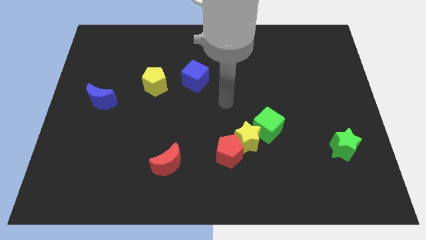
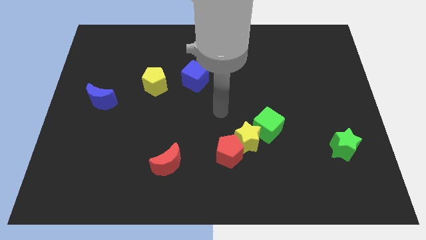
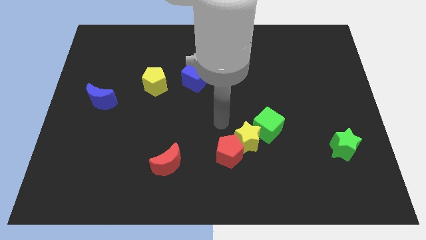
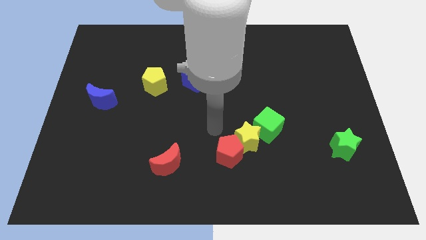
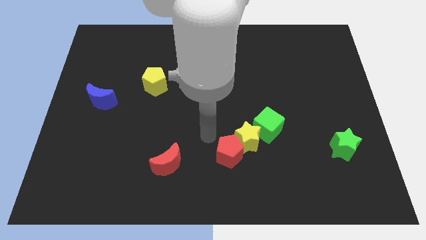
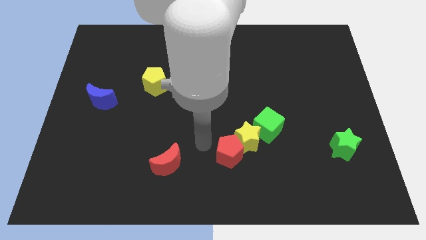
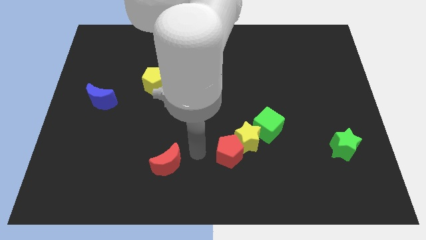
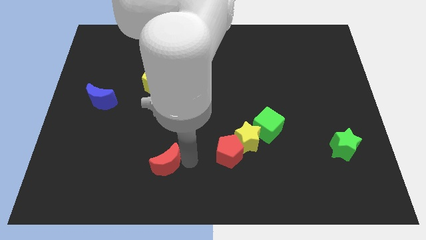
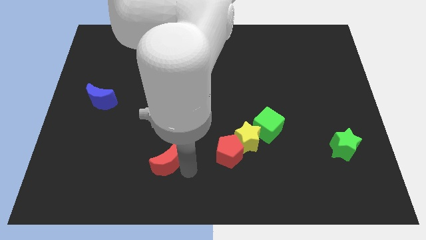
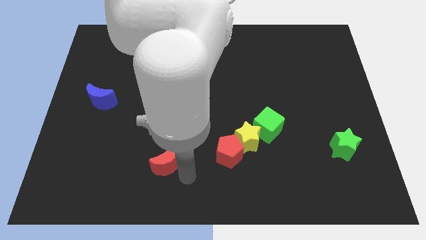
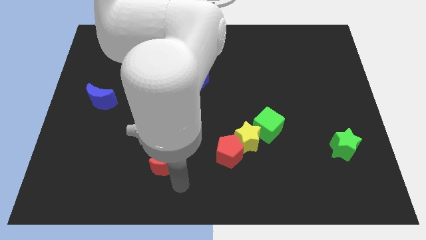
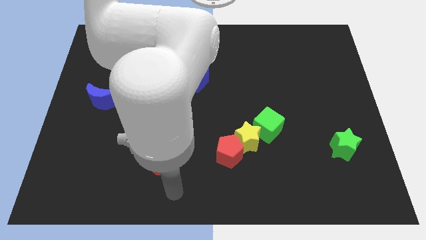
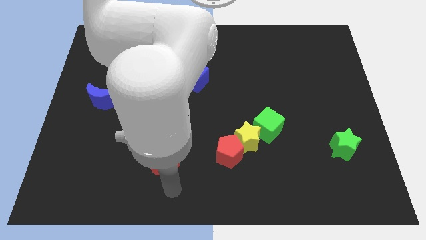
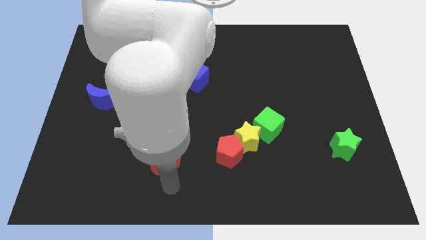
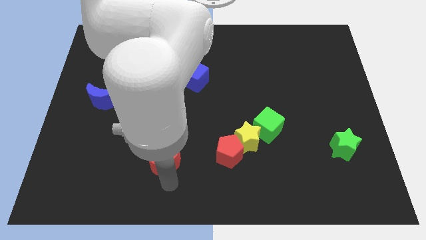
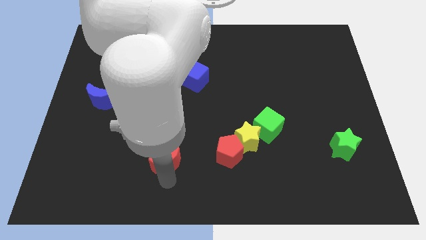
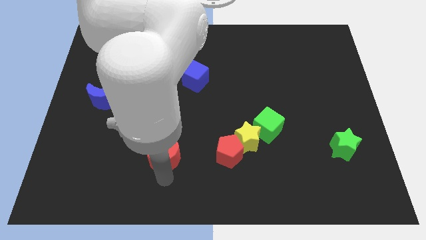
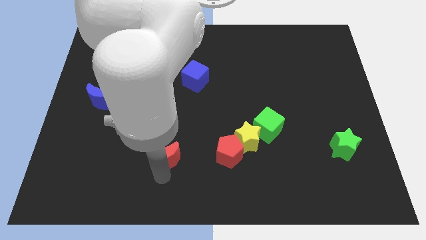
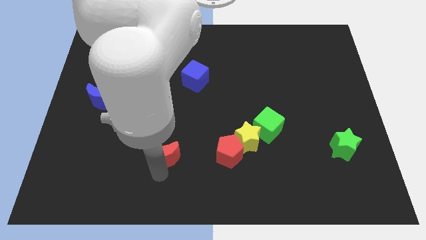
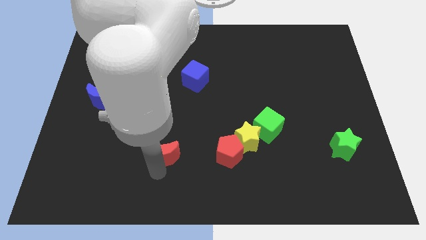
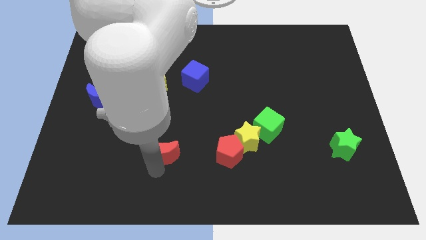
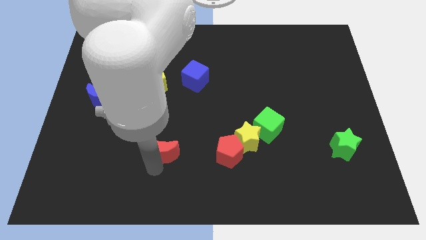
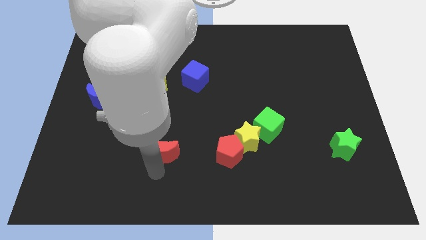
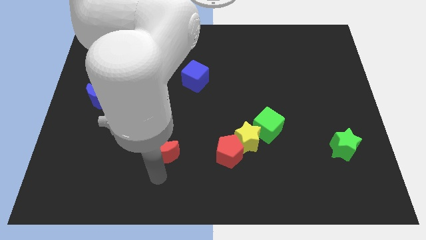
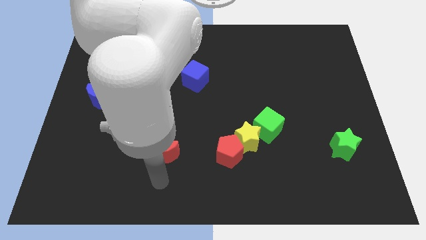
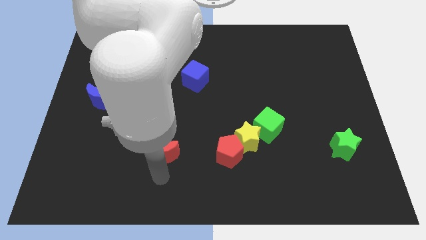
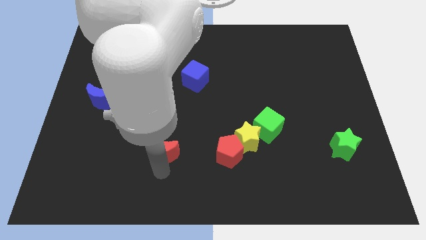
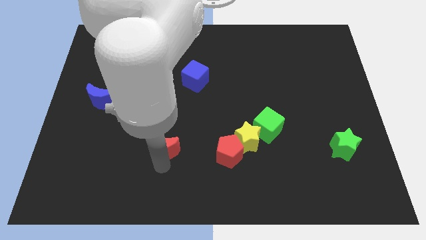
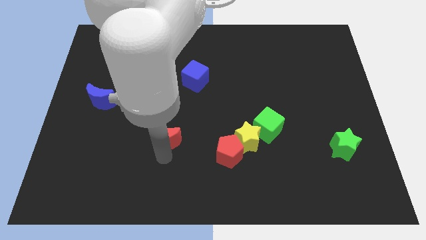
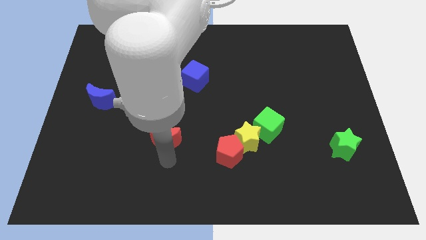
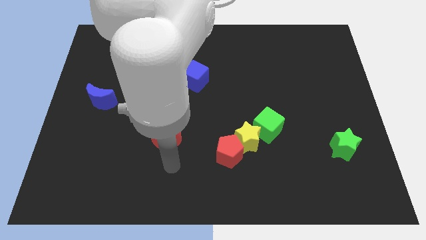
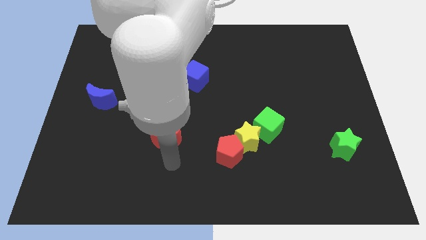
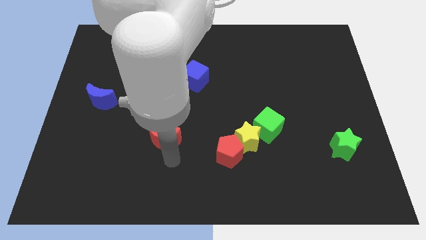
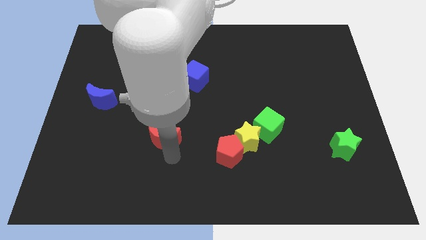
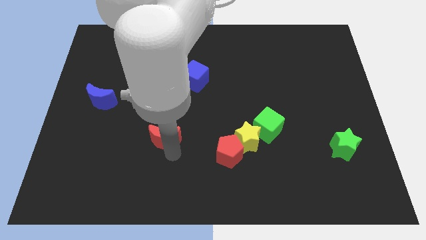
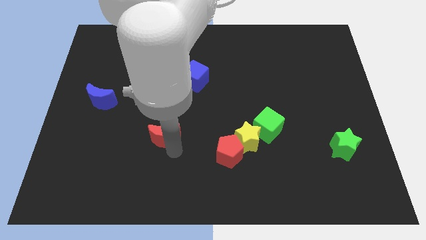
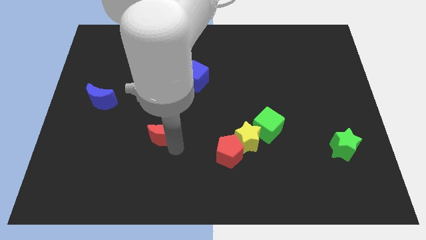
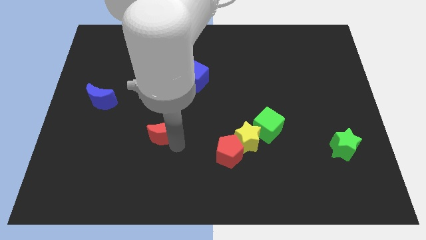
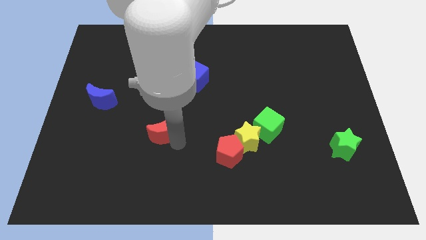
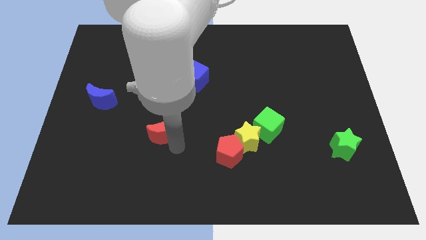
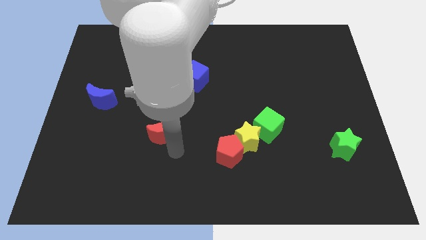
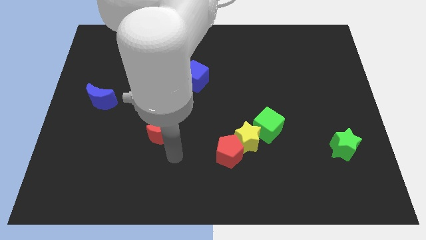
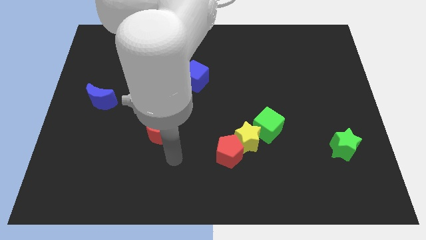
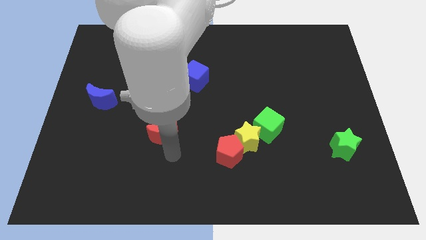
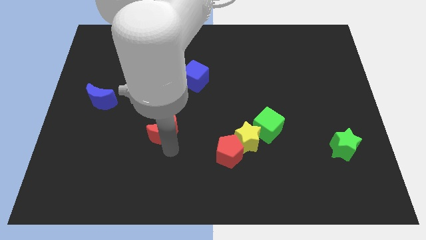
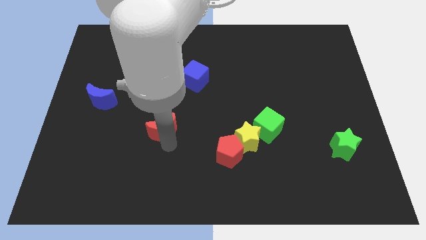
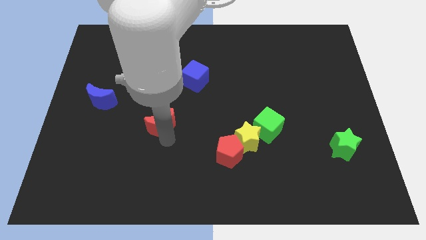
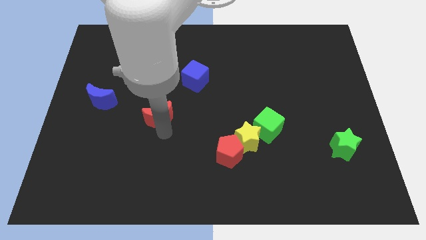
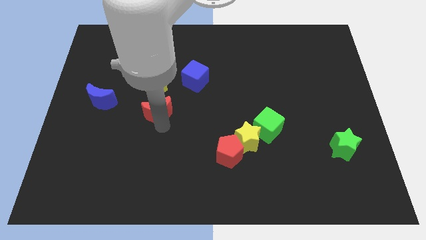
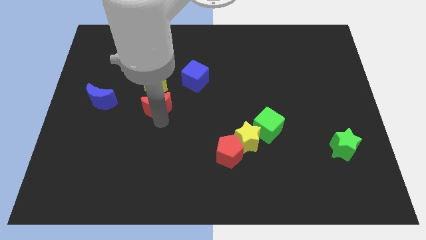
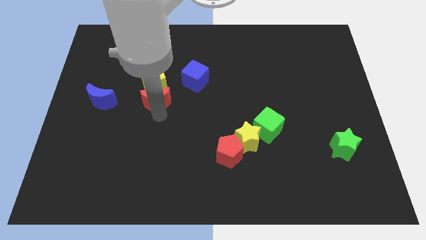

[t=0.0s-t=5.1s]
move the red moon towards the yellow pentagon

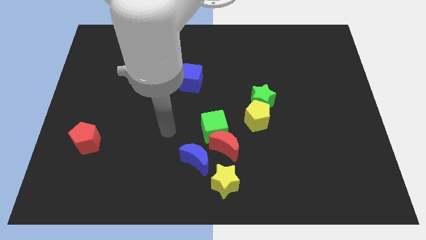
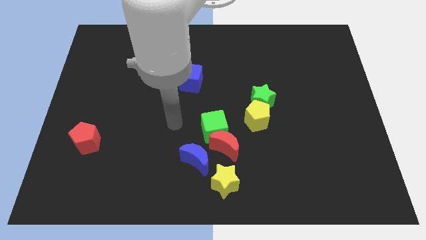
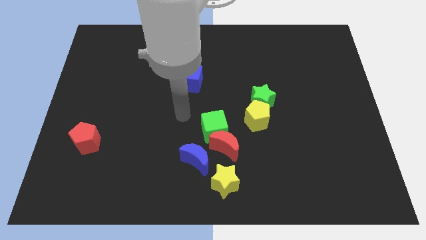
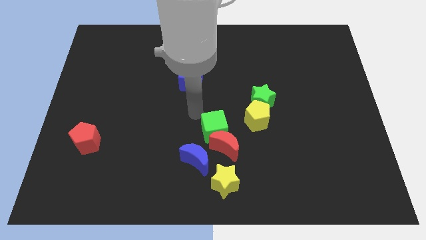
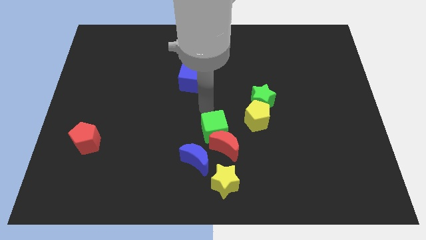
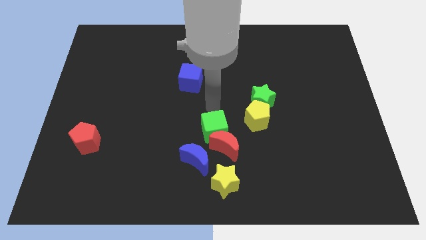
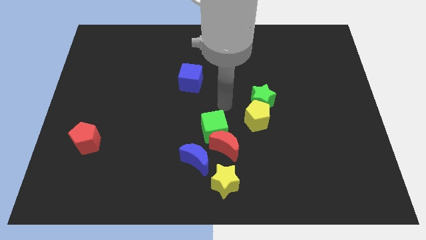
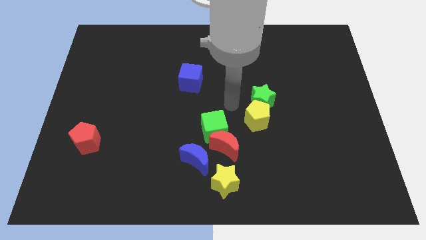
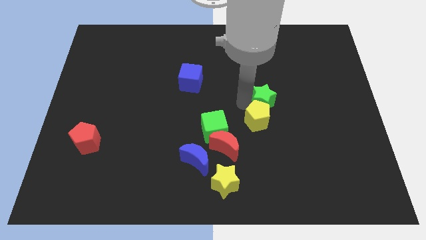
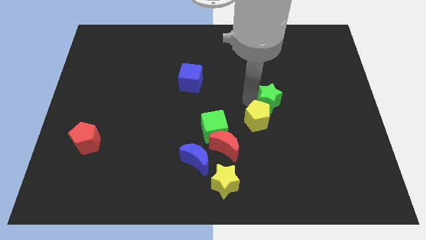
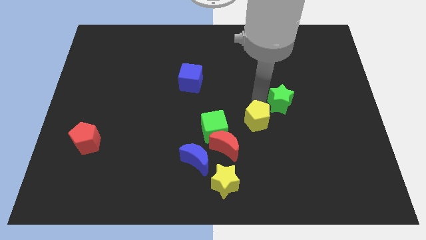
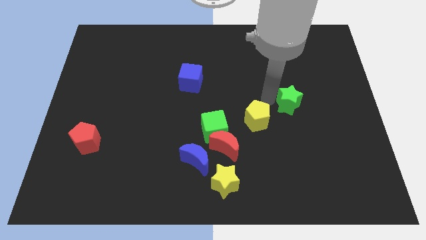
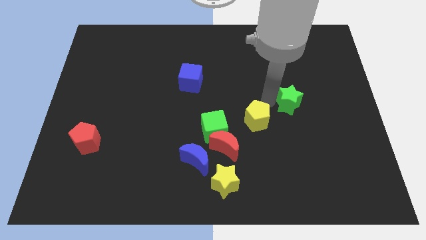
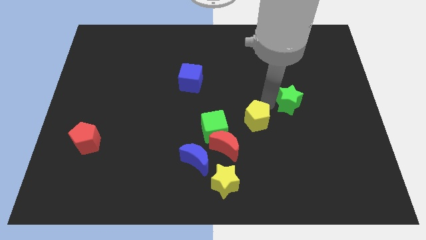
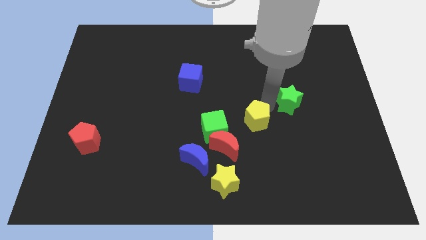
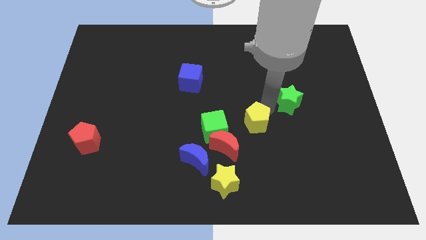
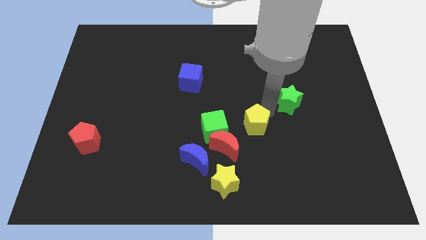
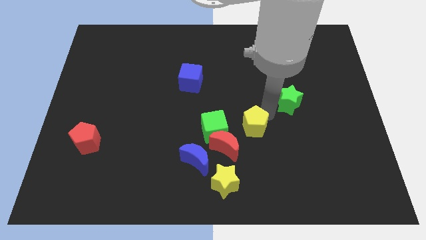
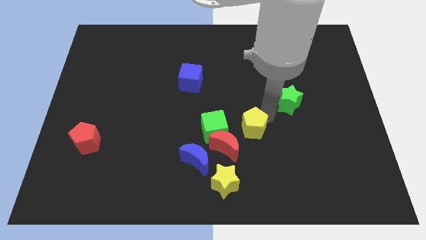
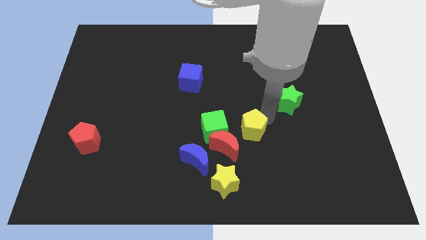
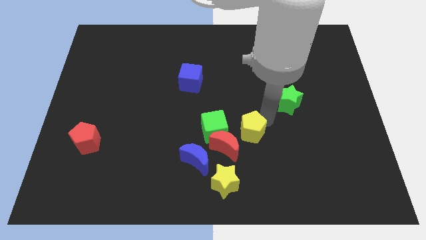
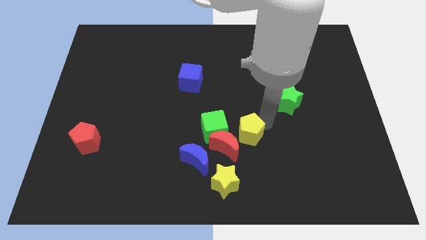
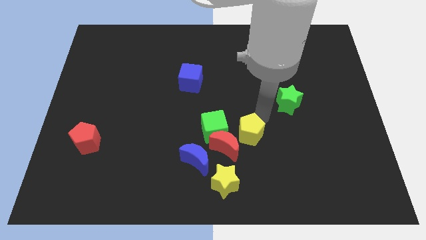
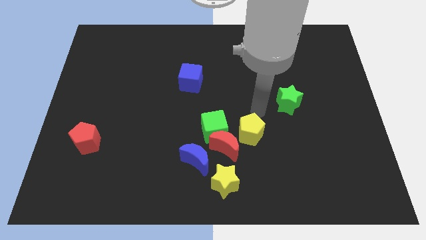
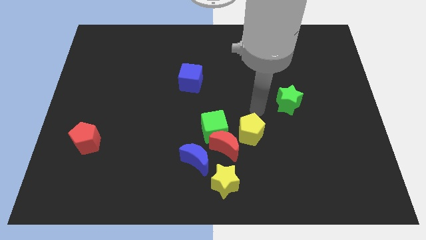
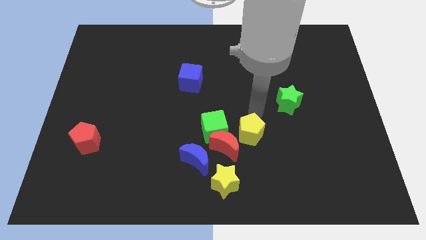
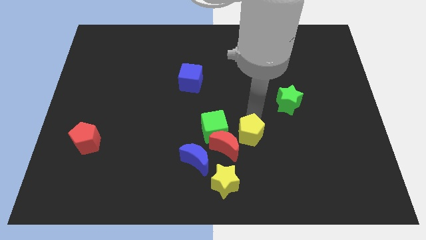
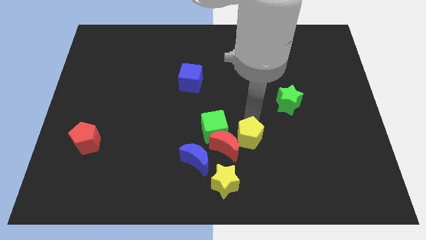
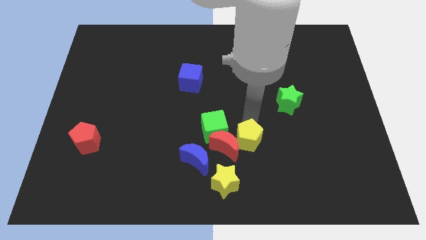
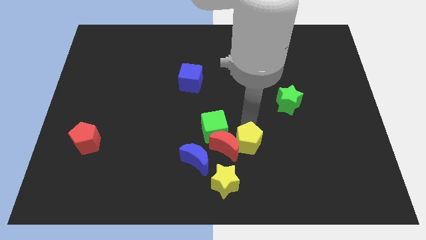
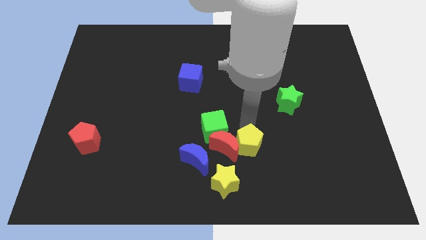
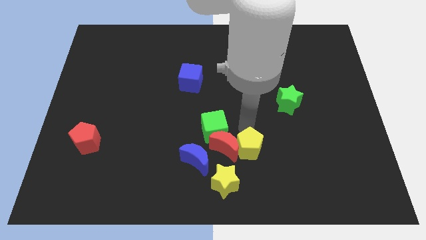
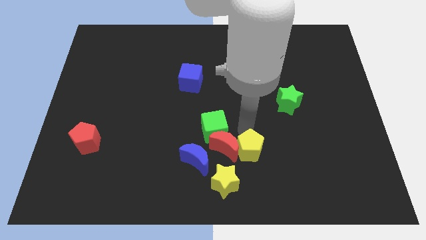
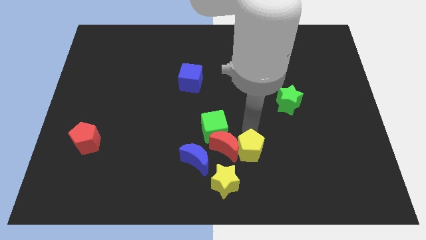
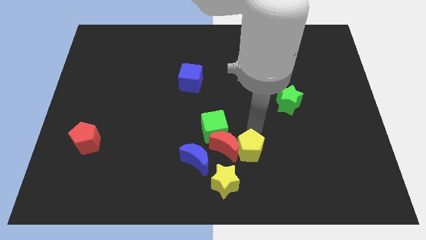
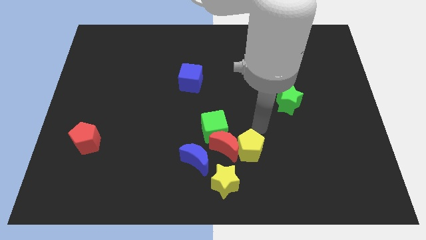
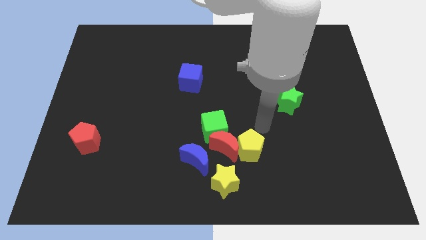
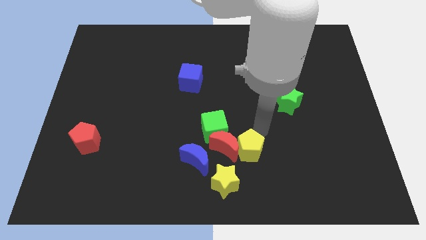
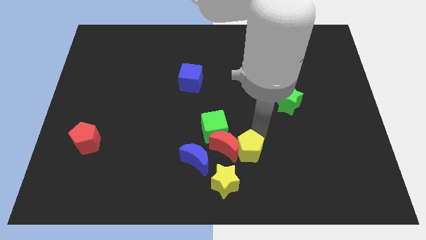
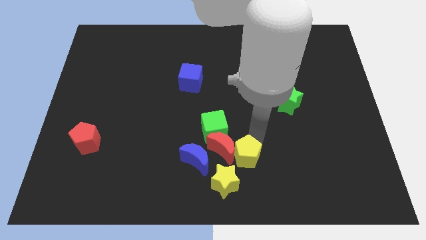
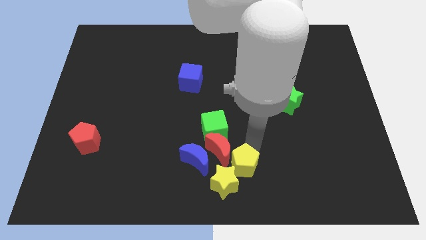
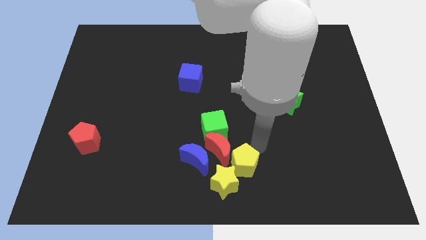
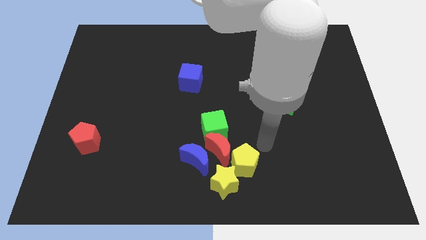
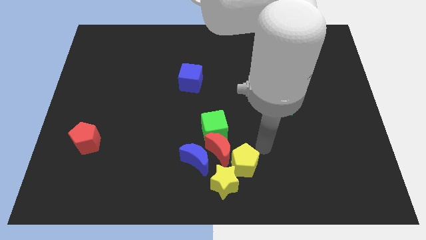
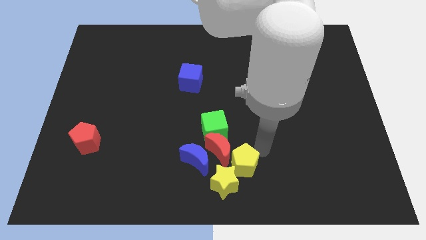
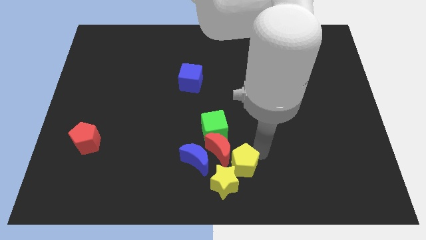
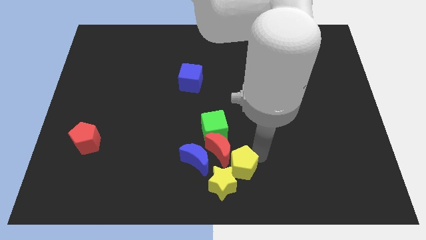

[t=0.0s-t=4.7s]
move the yellow pentagon close to the yellow star
